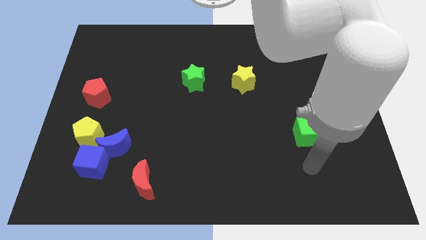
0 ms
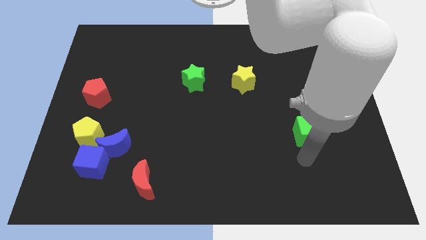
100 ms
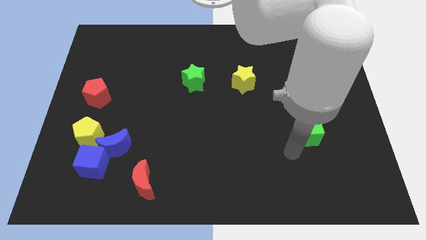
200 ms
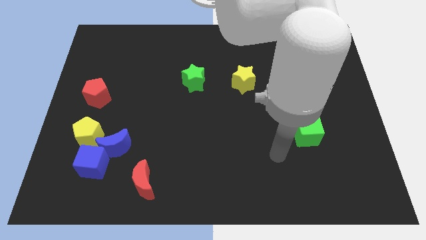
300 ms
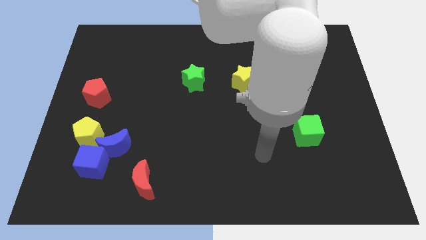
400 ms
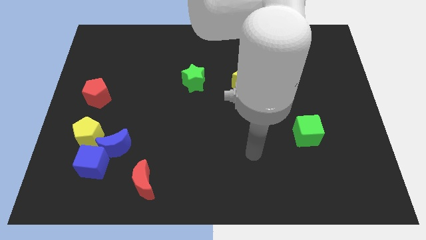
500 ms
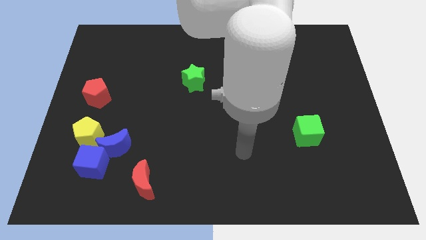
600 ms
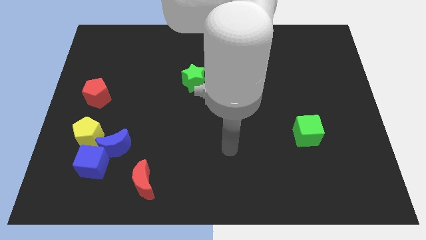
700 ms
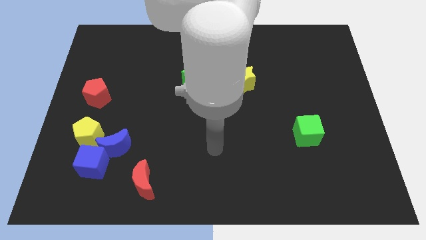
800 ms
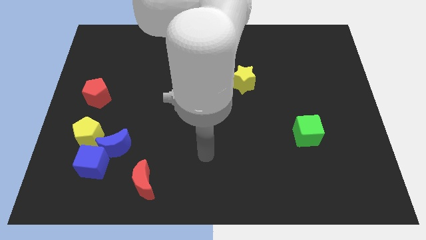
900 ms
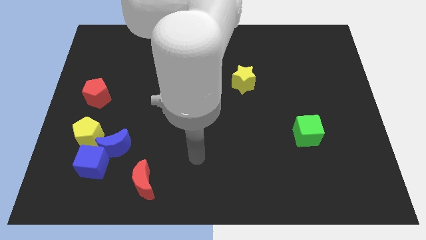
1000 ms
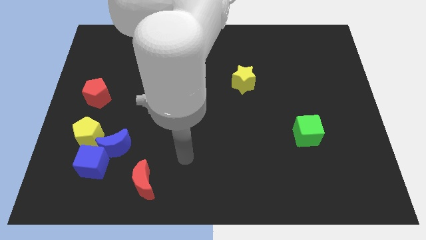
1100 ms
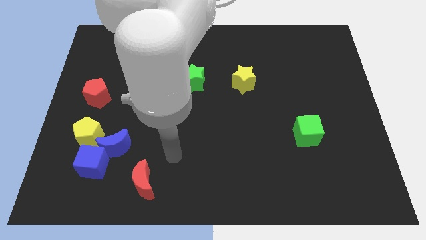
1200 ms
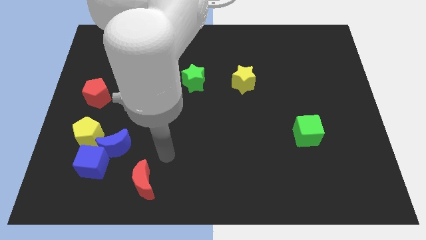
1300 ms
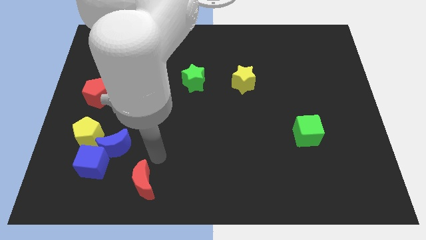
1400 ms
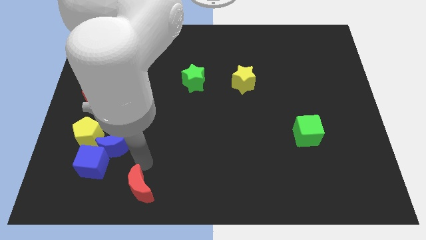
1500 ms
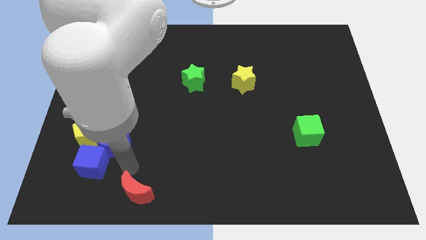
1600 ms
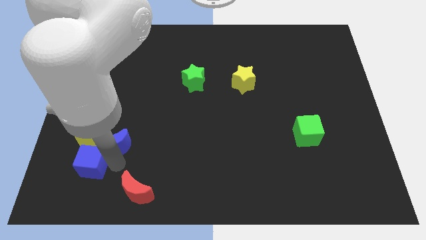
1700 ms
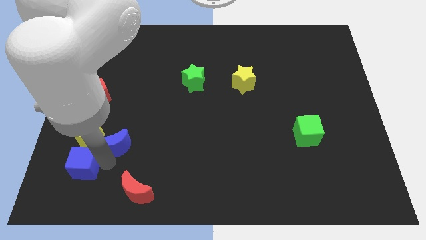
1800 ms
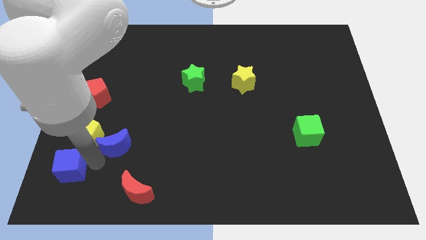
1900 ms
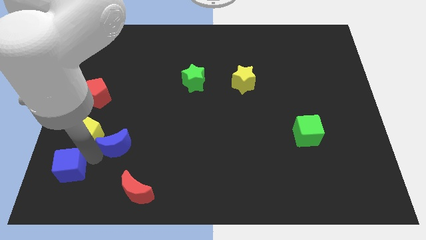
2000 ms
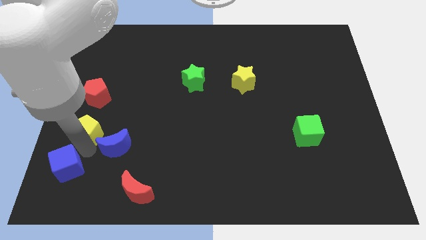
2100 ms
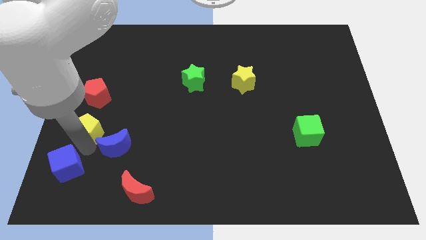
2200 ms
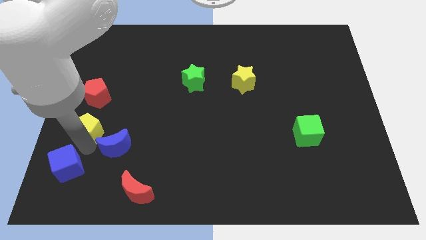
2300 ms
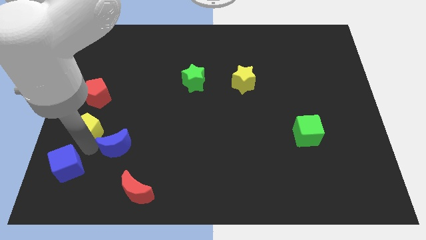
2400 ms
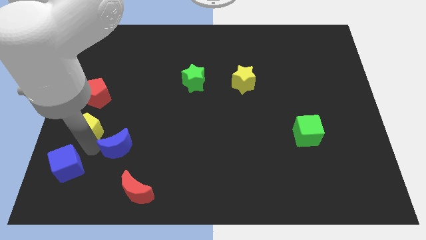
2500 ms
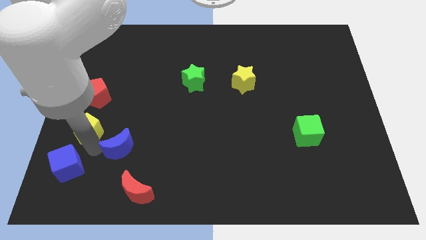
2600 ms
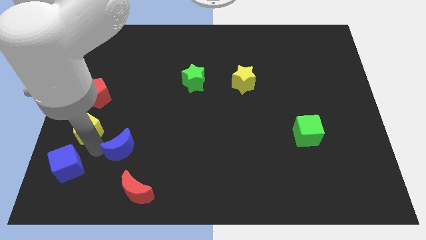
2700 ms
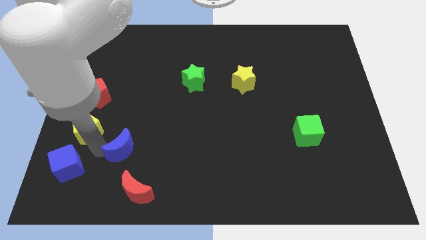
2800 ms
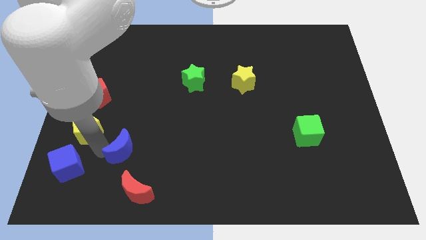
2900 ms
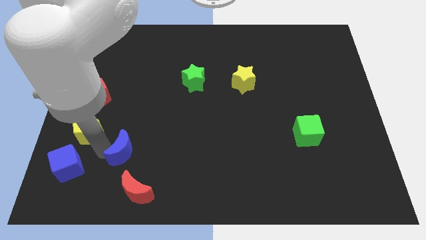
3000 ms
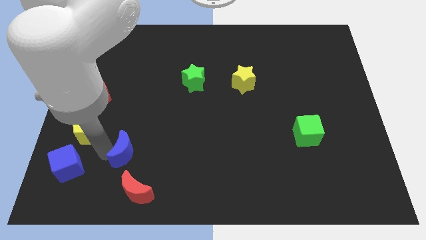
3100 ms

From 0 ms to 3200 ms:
pull the blue moon apart from the blue cube and yellow pentagon

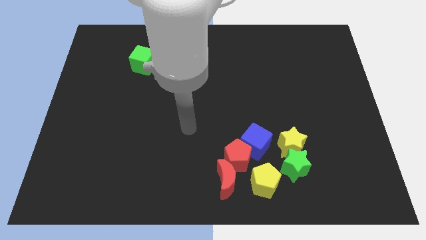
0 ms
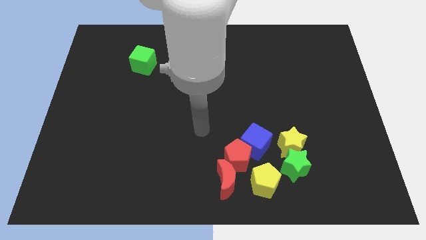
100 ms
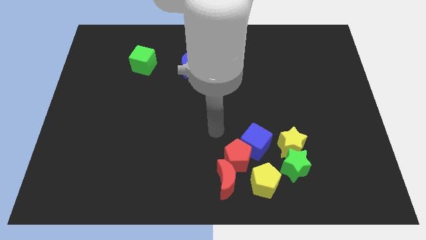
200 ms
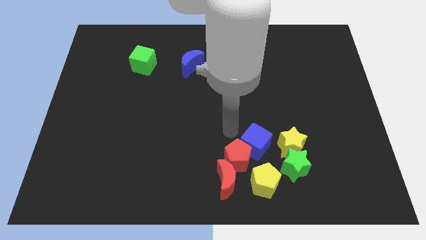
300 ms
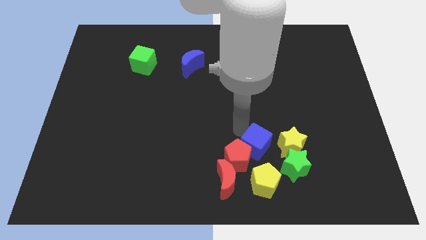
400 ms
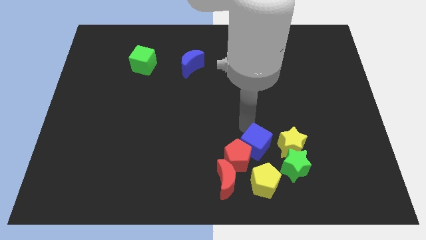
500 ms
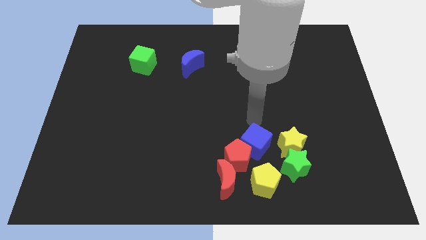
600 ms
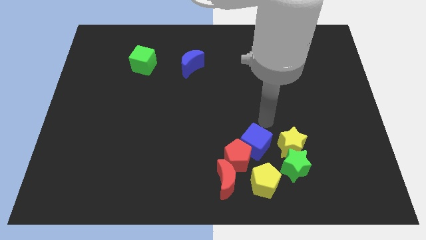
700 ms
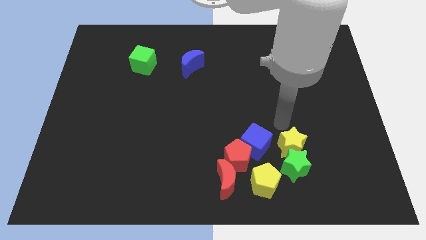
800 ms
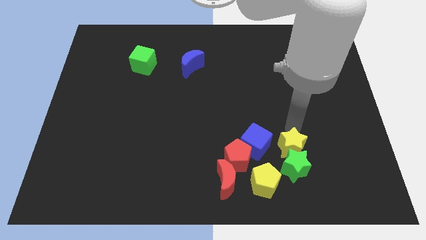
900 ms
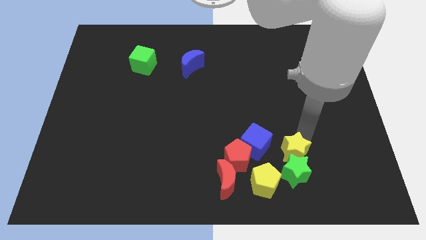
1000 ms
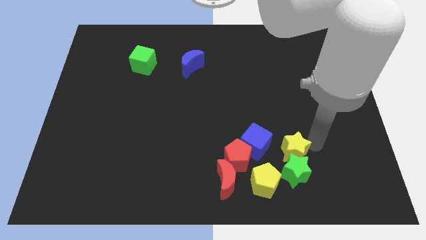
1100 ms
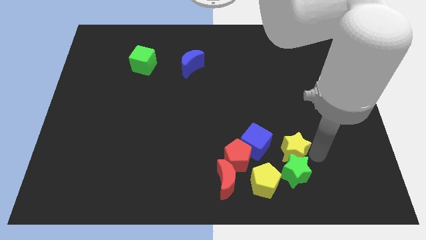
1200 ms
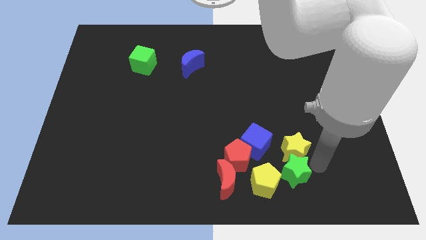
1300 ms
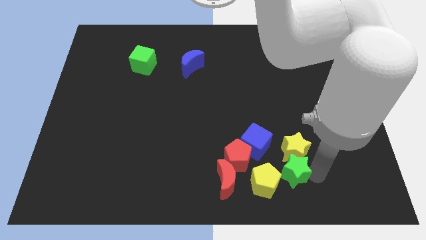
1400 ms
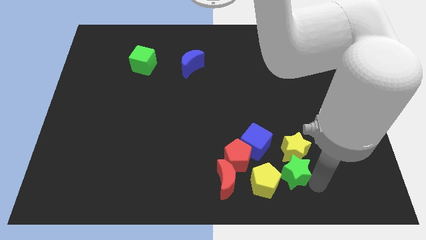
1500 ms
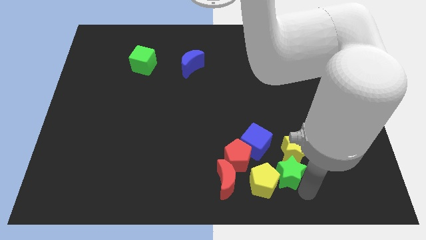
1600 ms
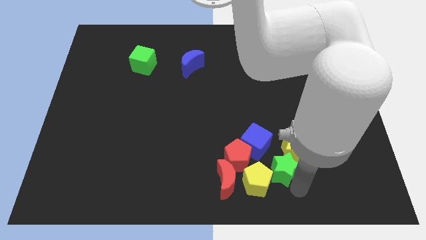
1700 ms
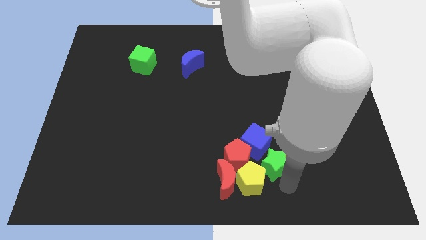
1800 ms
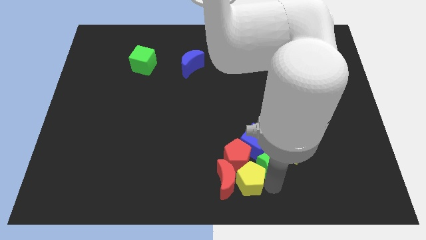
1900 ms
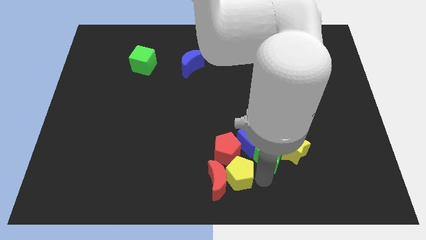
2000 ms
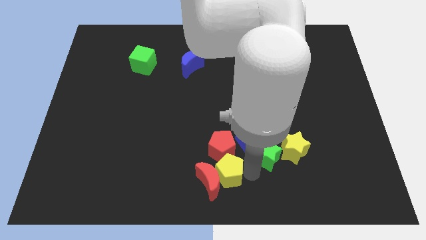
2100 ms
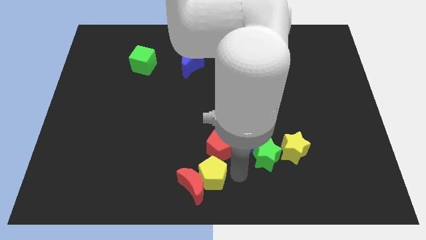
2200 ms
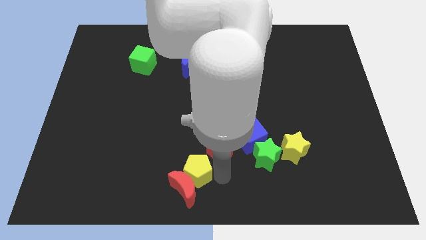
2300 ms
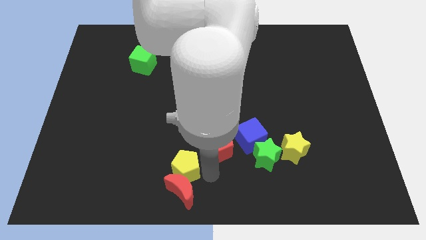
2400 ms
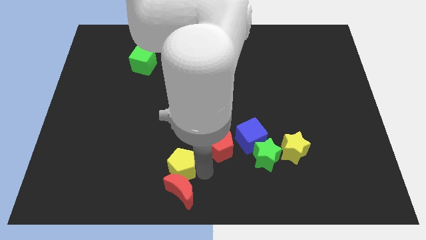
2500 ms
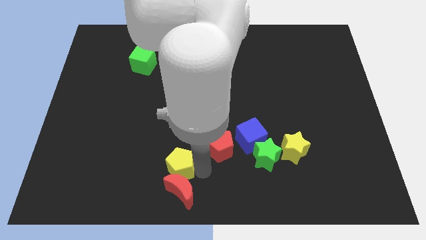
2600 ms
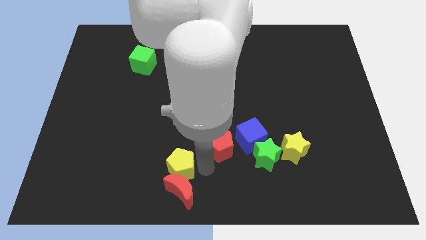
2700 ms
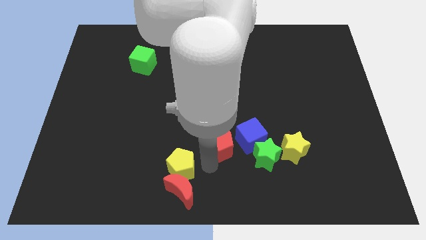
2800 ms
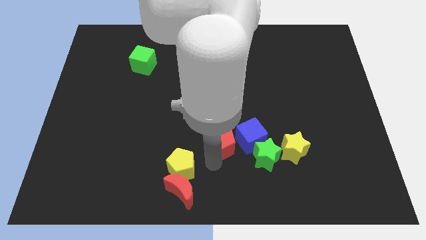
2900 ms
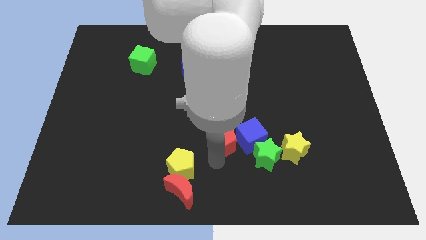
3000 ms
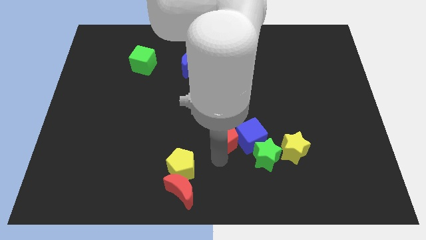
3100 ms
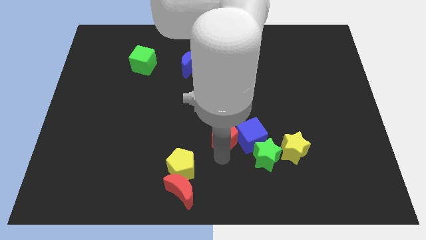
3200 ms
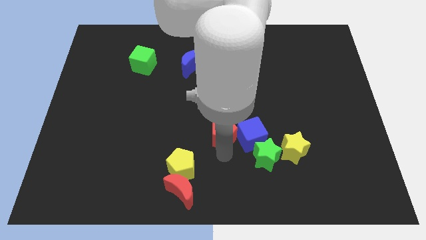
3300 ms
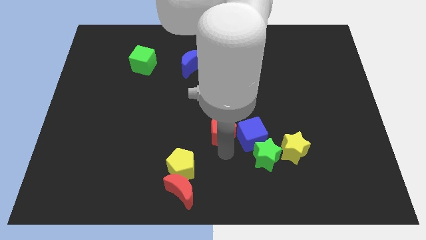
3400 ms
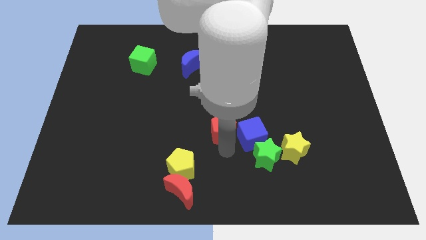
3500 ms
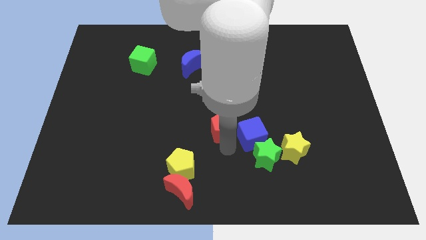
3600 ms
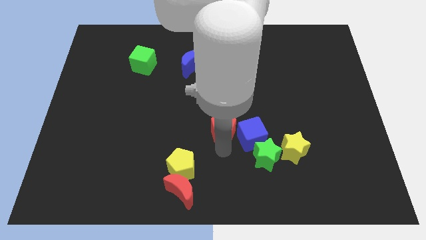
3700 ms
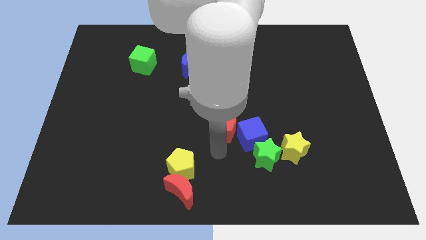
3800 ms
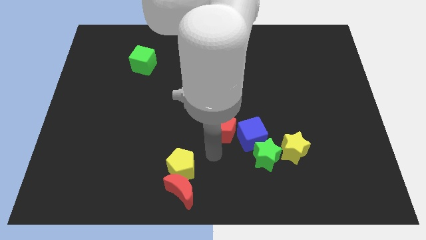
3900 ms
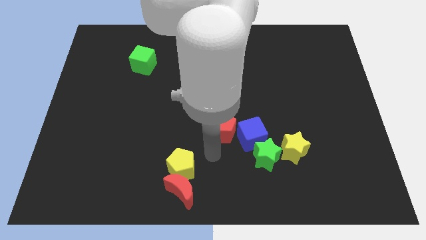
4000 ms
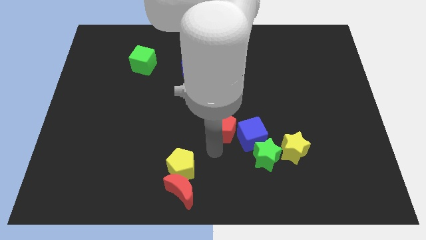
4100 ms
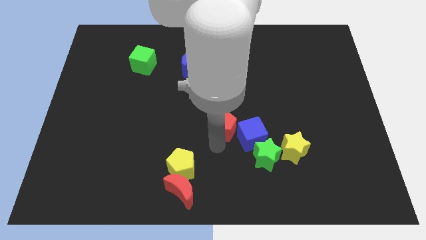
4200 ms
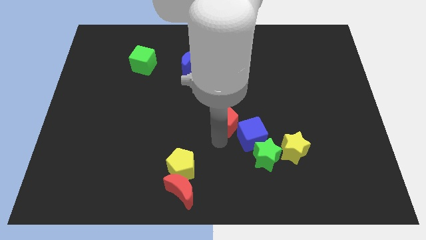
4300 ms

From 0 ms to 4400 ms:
separate the red pentagon from the blue cube, red moon, and yellow pentagon

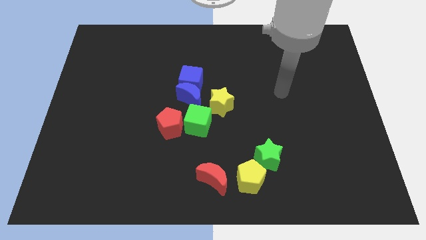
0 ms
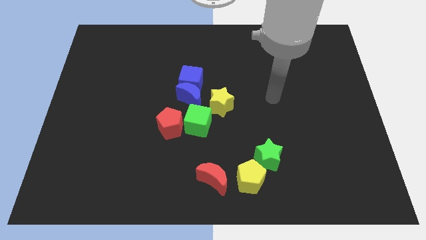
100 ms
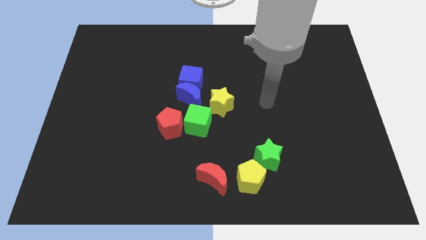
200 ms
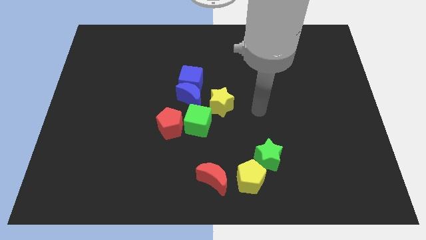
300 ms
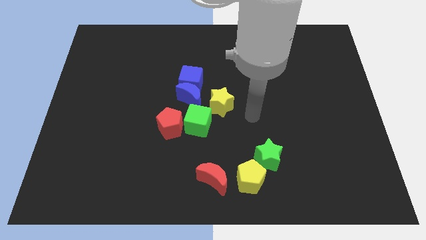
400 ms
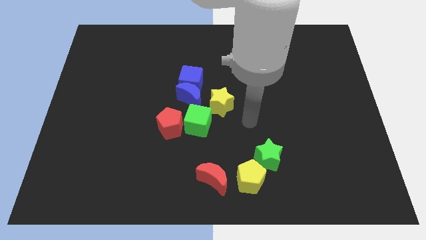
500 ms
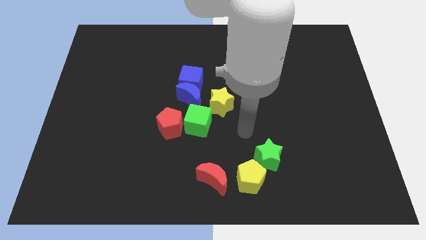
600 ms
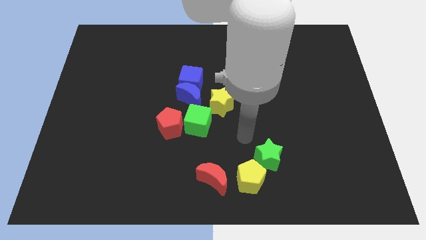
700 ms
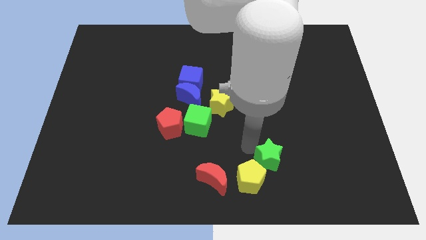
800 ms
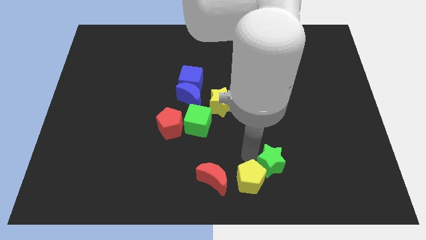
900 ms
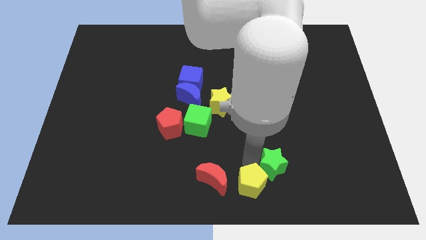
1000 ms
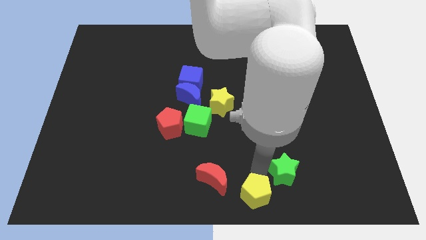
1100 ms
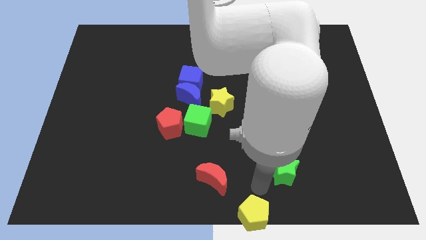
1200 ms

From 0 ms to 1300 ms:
move the green star away from the yellow pentagon

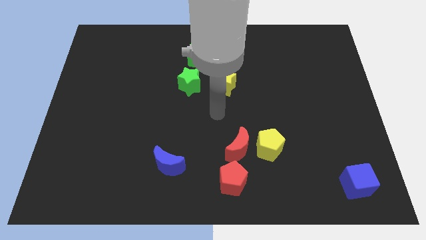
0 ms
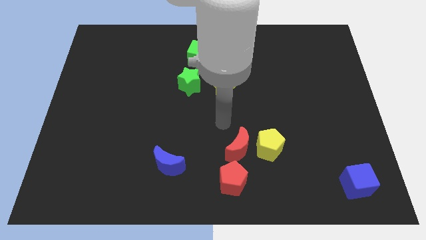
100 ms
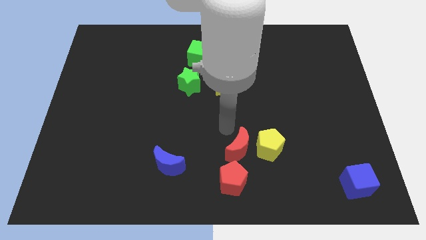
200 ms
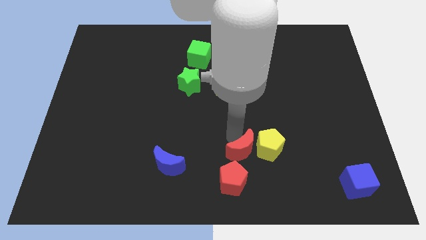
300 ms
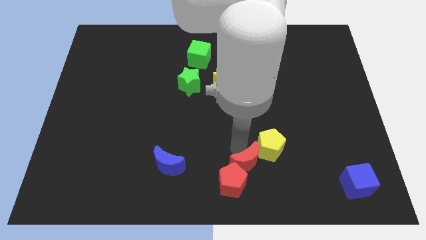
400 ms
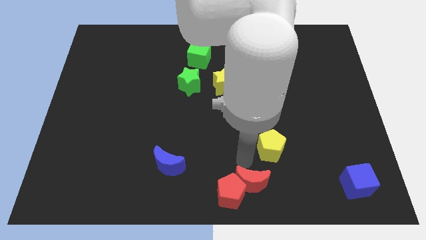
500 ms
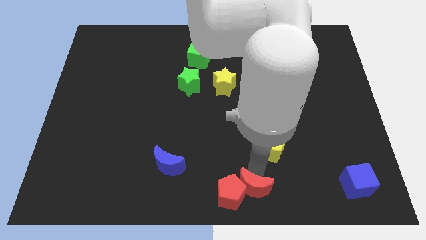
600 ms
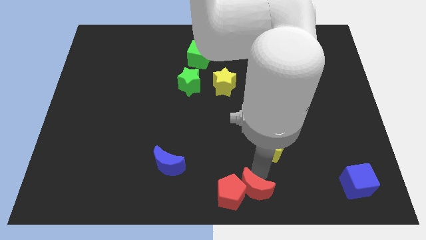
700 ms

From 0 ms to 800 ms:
move the yellow pentagon away from the red moon
